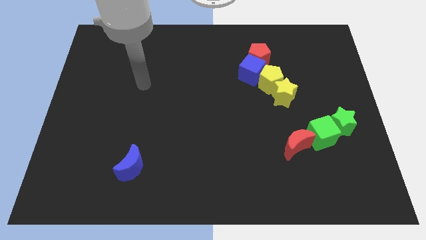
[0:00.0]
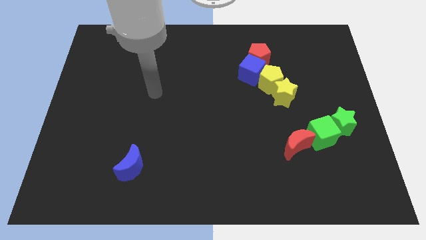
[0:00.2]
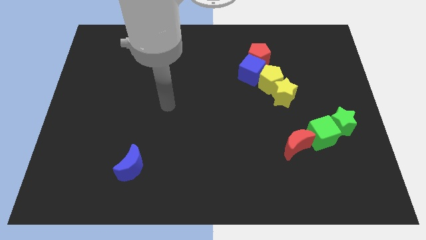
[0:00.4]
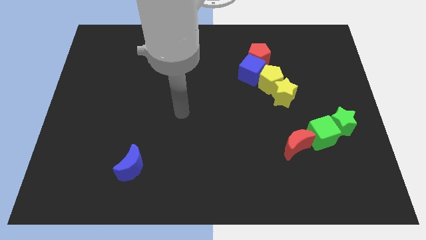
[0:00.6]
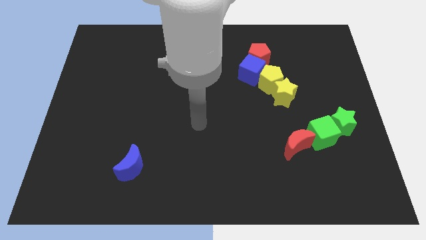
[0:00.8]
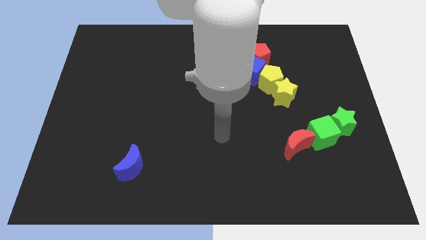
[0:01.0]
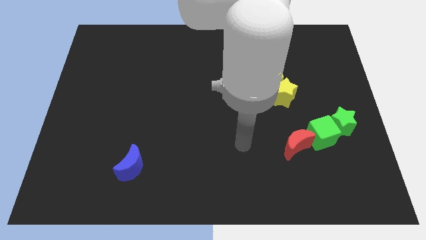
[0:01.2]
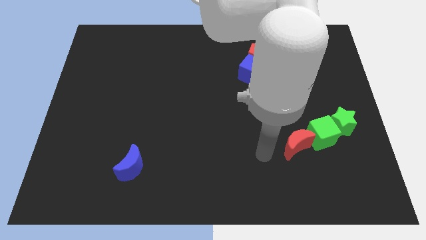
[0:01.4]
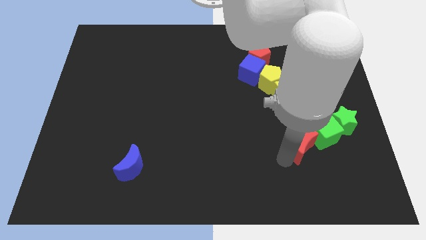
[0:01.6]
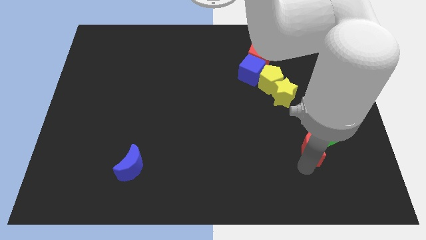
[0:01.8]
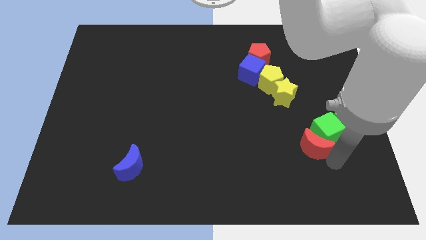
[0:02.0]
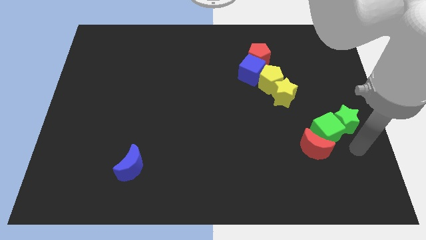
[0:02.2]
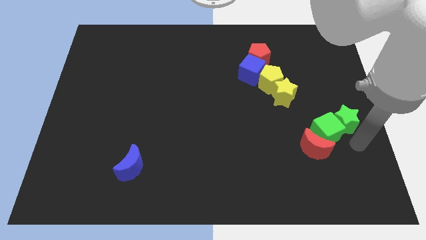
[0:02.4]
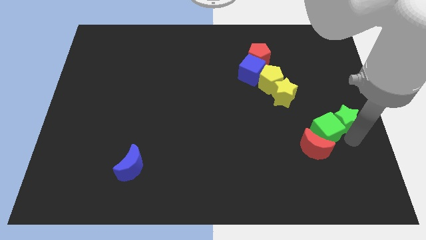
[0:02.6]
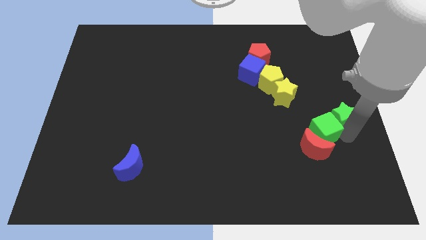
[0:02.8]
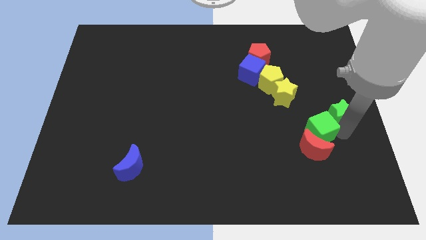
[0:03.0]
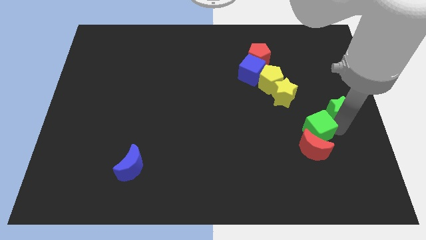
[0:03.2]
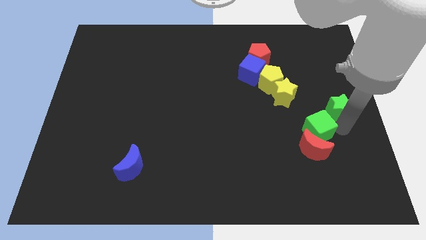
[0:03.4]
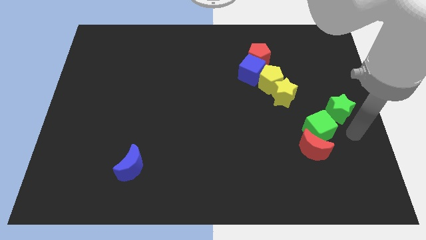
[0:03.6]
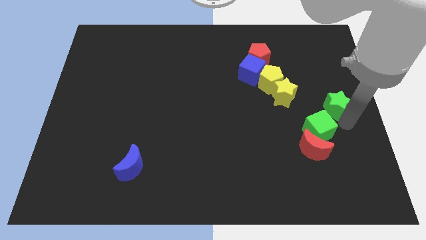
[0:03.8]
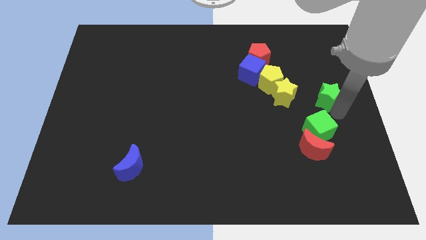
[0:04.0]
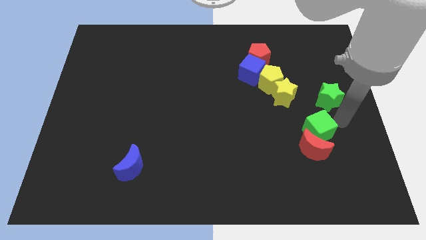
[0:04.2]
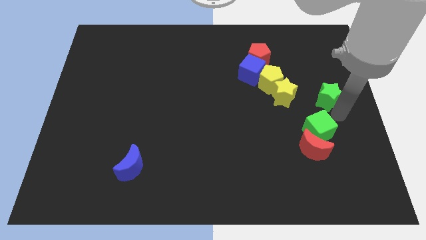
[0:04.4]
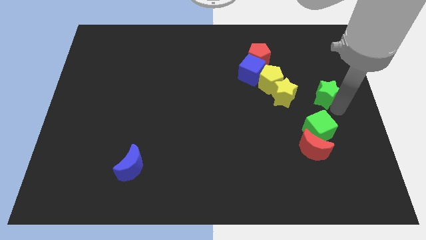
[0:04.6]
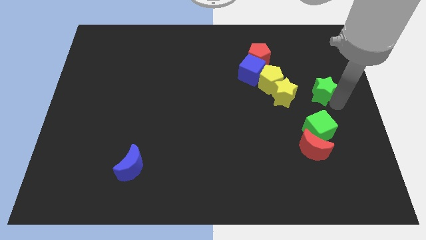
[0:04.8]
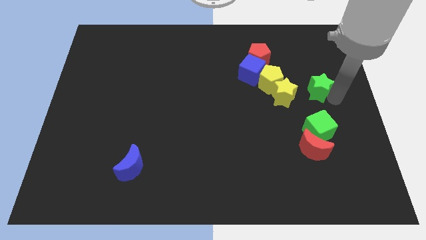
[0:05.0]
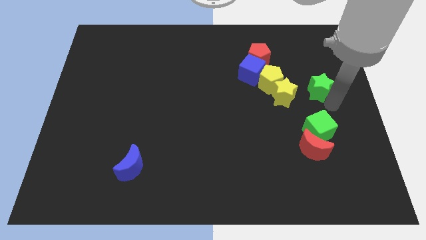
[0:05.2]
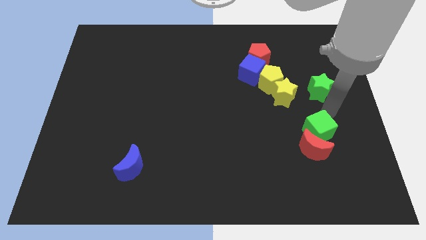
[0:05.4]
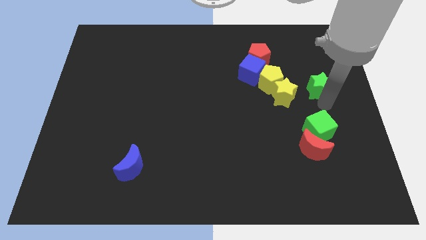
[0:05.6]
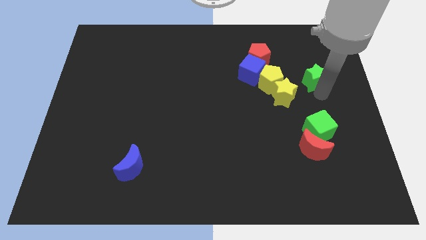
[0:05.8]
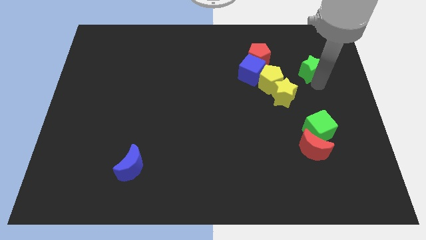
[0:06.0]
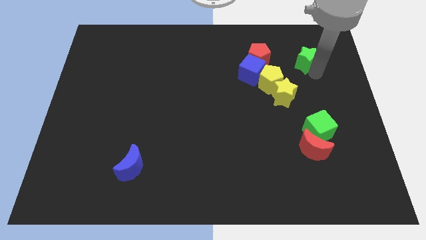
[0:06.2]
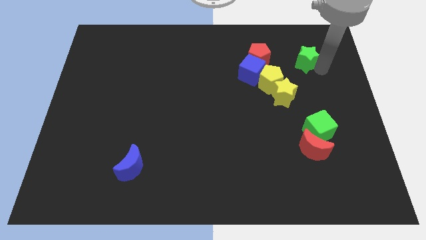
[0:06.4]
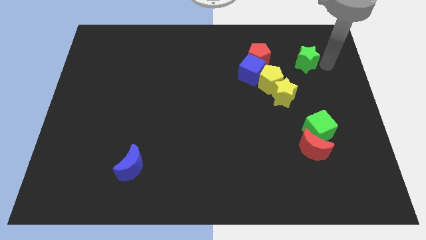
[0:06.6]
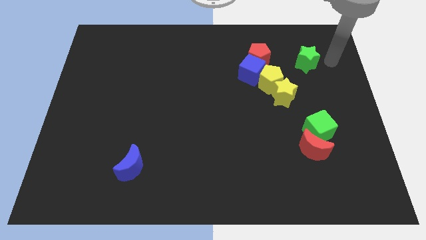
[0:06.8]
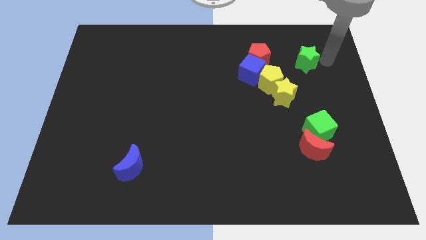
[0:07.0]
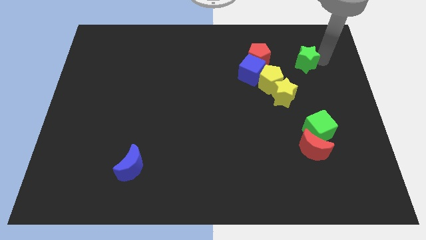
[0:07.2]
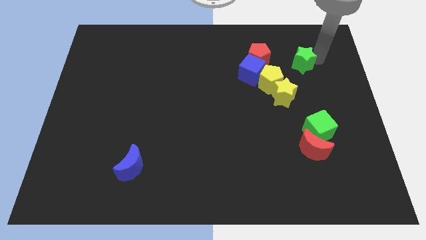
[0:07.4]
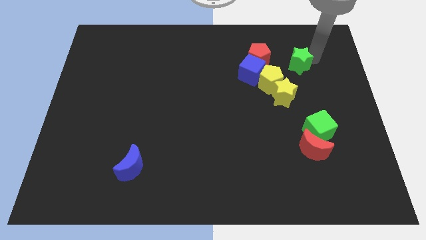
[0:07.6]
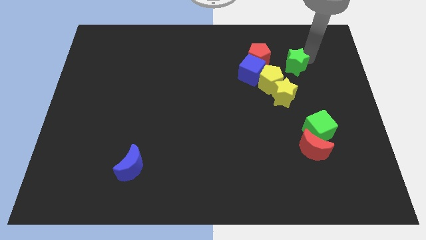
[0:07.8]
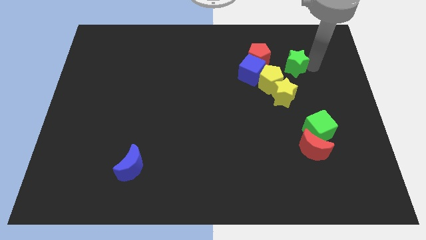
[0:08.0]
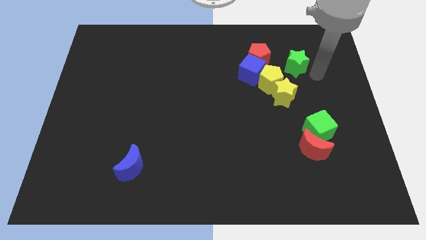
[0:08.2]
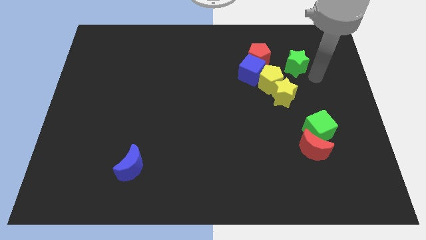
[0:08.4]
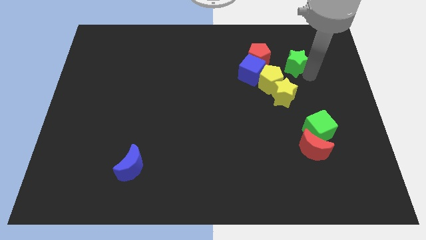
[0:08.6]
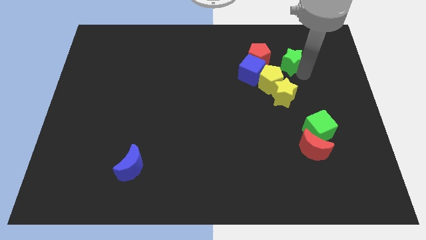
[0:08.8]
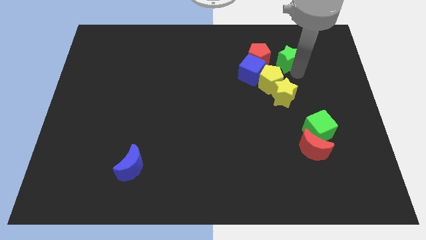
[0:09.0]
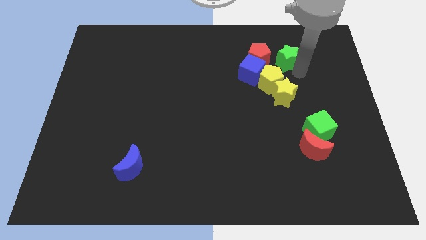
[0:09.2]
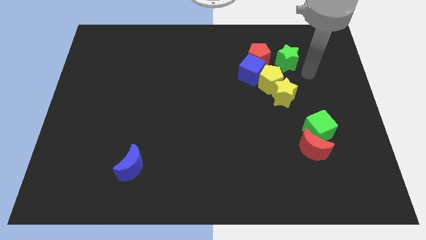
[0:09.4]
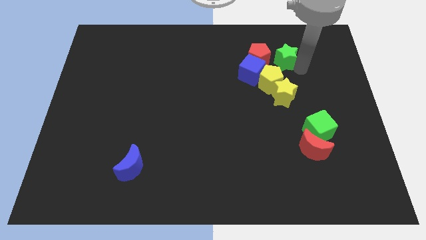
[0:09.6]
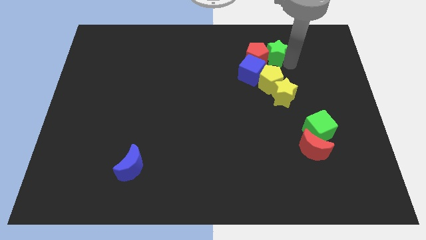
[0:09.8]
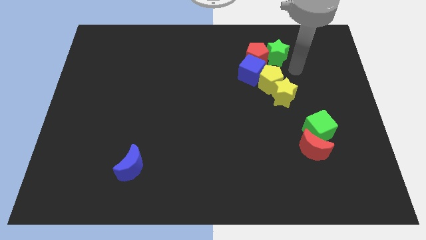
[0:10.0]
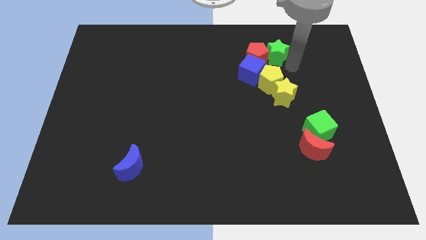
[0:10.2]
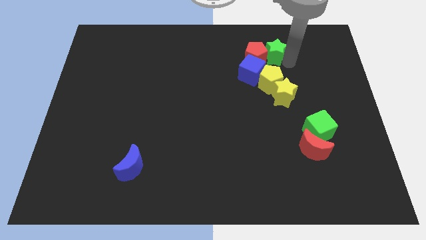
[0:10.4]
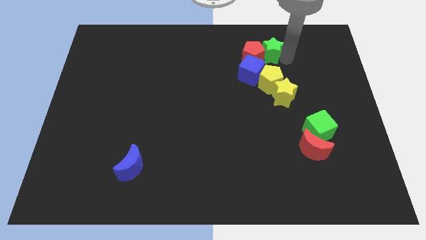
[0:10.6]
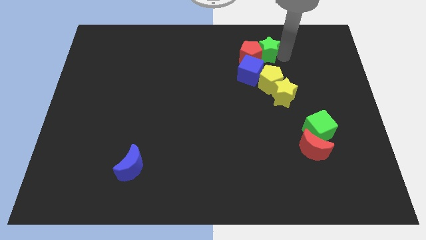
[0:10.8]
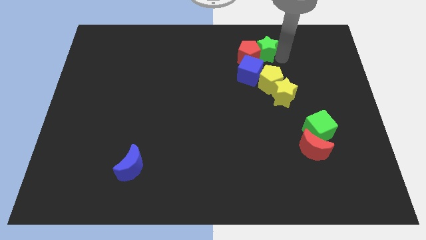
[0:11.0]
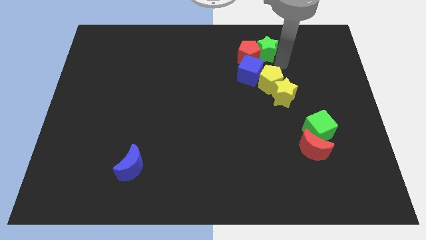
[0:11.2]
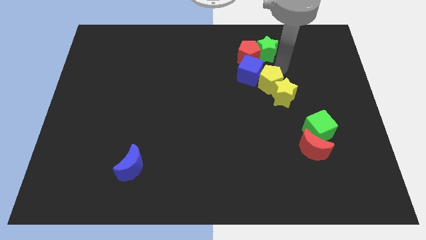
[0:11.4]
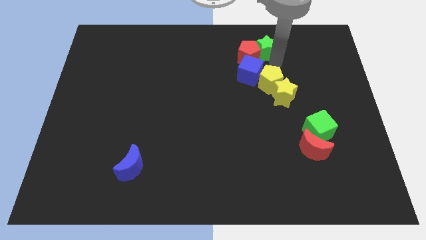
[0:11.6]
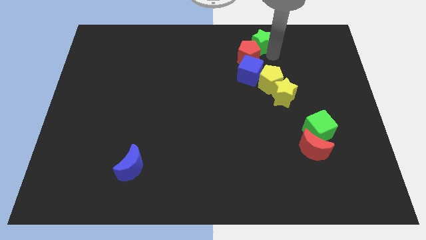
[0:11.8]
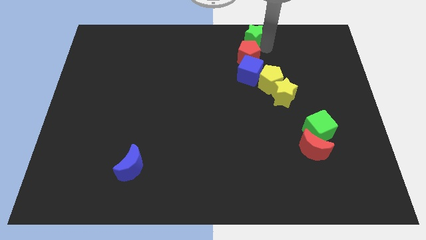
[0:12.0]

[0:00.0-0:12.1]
put the green star to the towards your base
